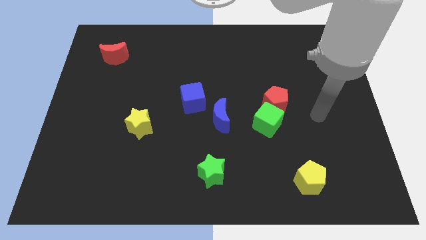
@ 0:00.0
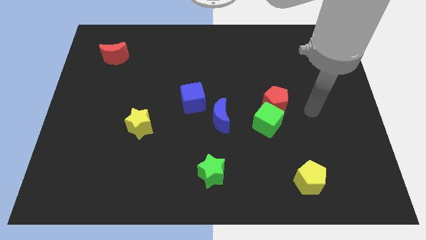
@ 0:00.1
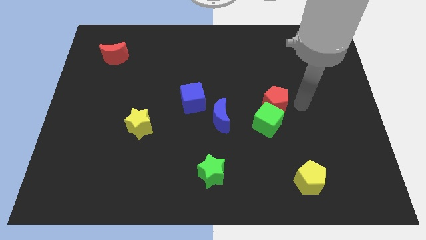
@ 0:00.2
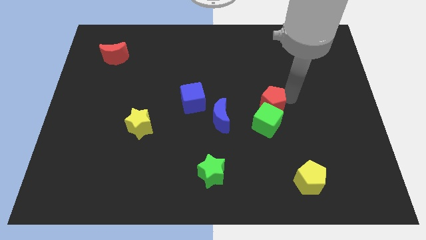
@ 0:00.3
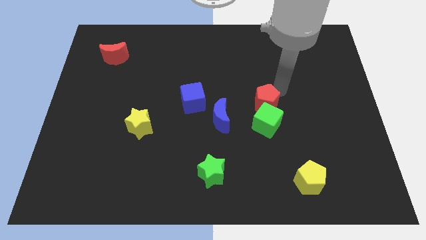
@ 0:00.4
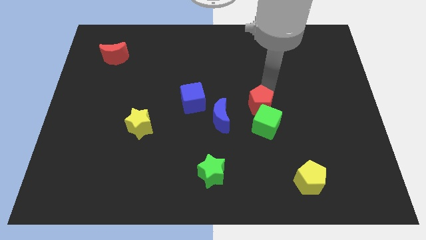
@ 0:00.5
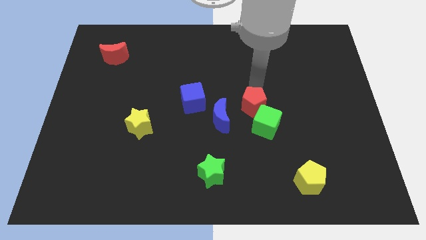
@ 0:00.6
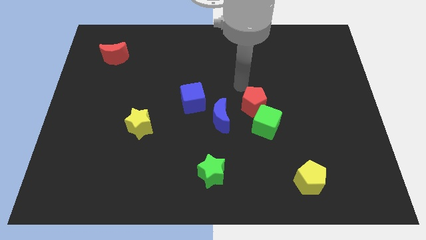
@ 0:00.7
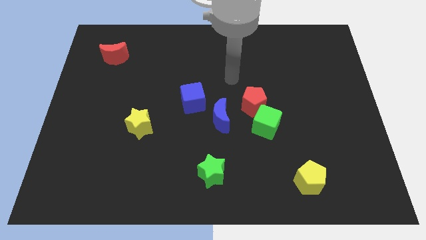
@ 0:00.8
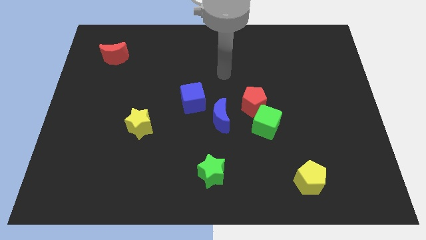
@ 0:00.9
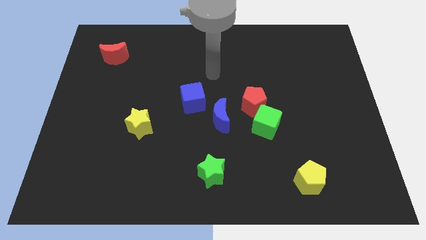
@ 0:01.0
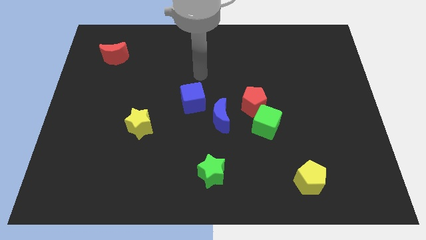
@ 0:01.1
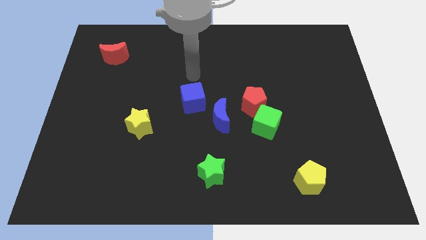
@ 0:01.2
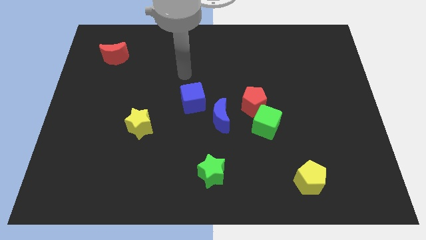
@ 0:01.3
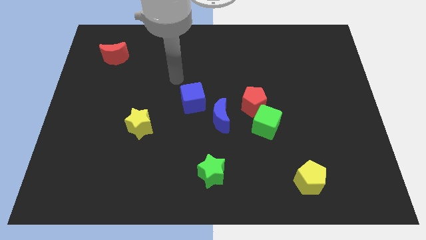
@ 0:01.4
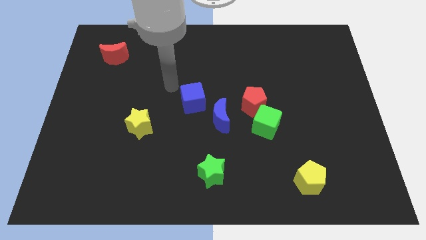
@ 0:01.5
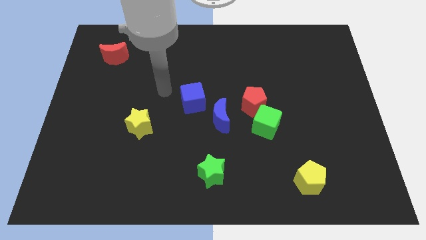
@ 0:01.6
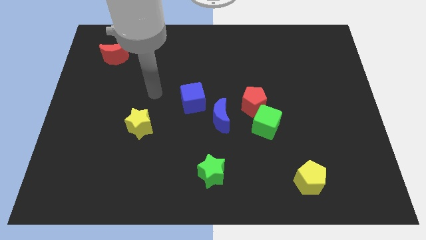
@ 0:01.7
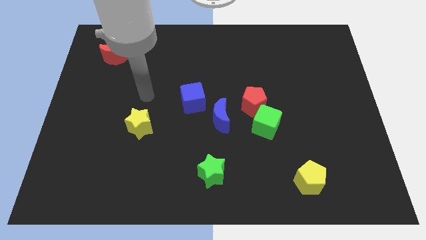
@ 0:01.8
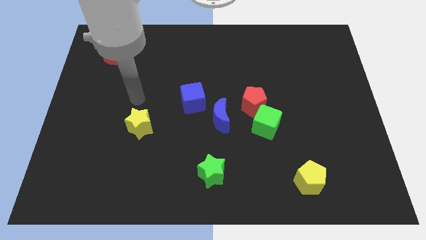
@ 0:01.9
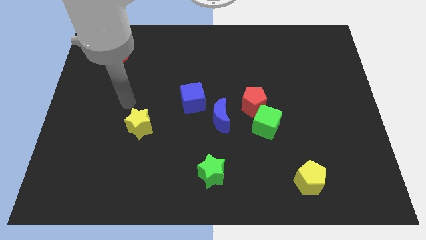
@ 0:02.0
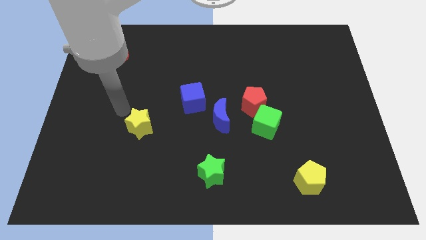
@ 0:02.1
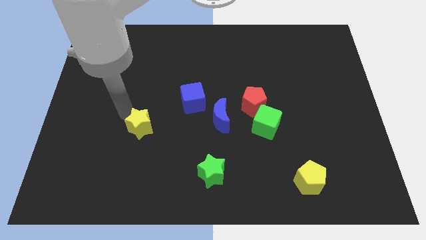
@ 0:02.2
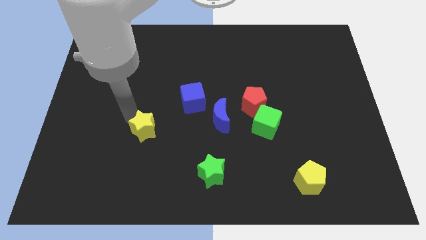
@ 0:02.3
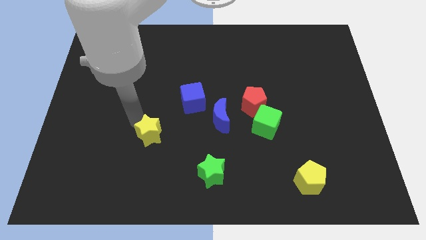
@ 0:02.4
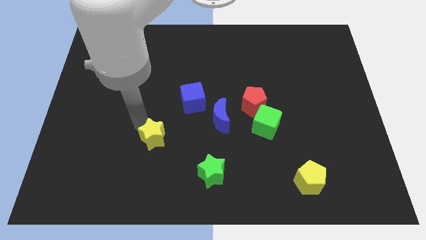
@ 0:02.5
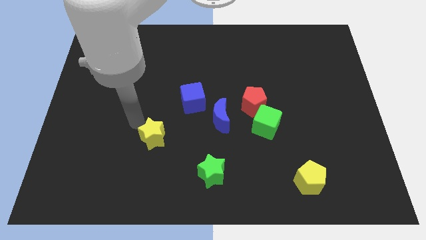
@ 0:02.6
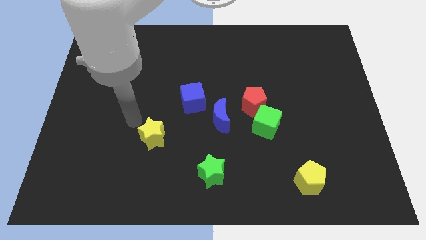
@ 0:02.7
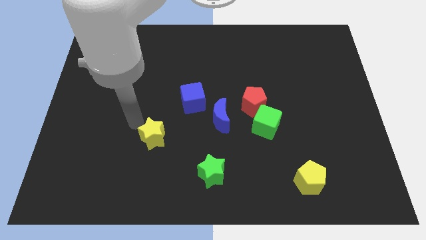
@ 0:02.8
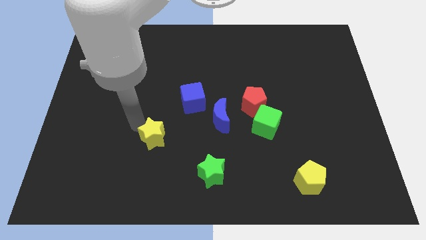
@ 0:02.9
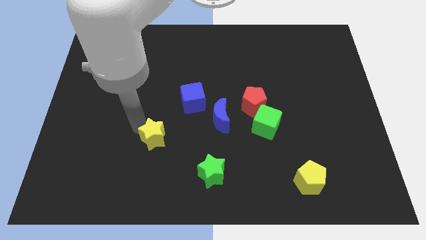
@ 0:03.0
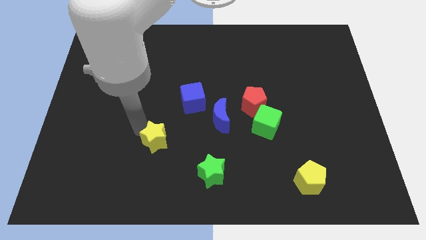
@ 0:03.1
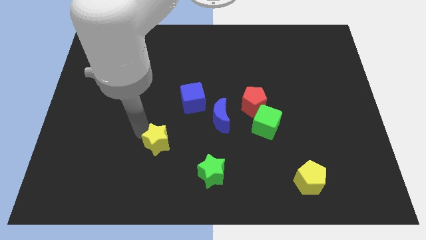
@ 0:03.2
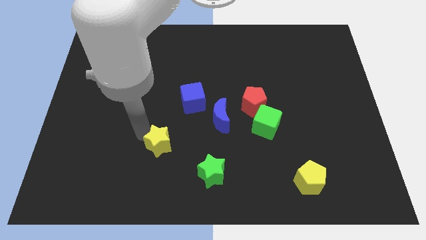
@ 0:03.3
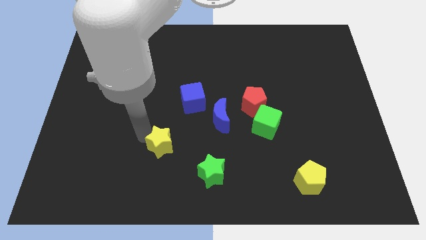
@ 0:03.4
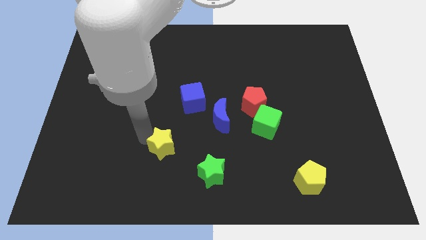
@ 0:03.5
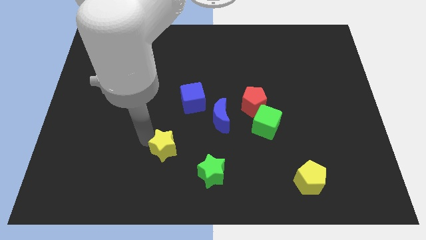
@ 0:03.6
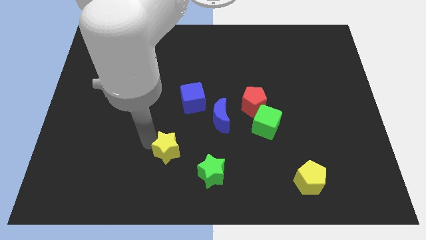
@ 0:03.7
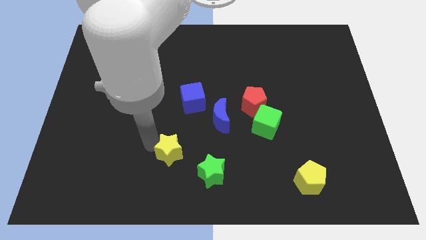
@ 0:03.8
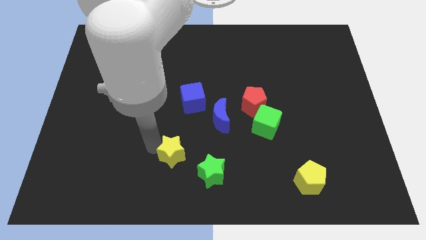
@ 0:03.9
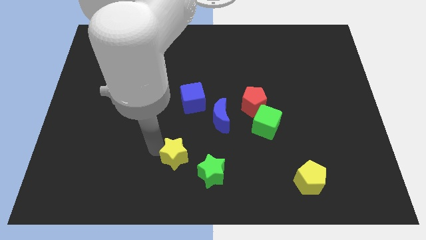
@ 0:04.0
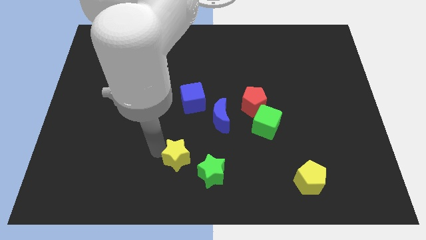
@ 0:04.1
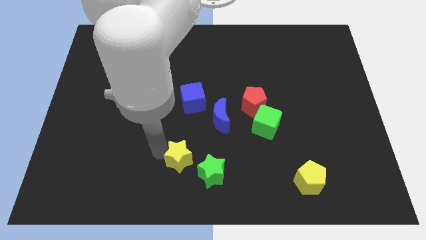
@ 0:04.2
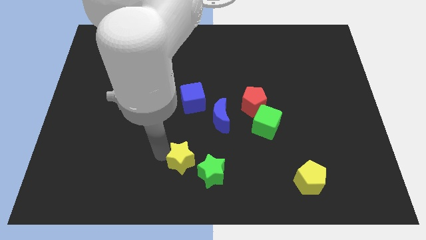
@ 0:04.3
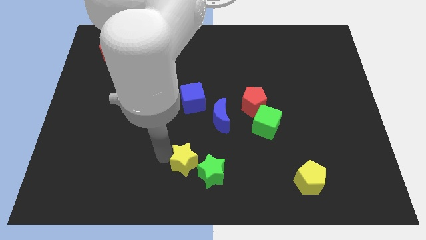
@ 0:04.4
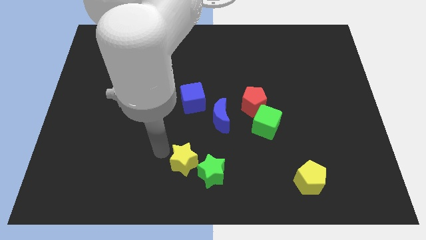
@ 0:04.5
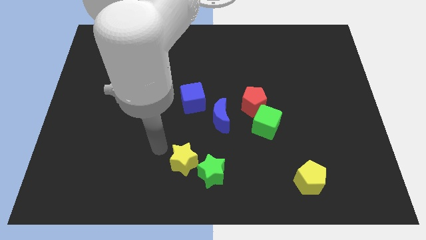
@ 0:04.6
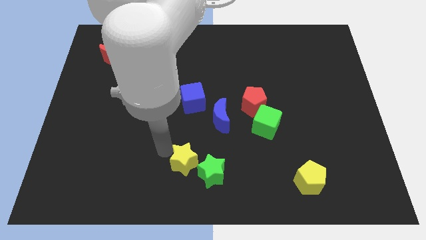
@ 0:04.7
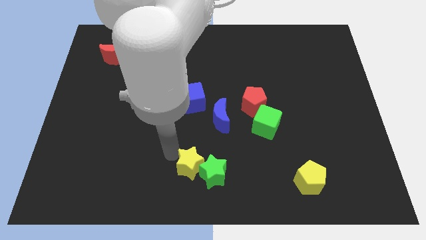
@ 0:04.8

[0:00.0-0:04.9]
put the yellow star close to the green star

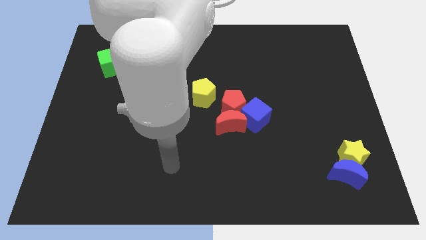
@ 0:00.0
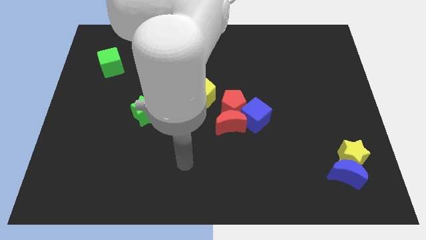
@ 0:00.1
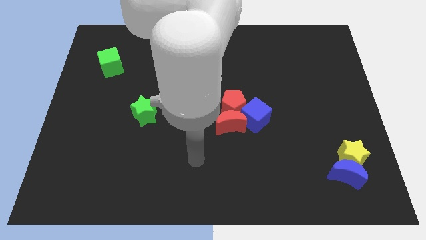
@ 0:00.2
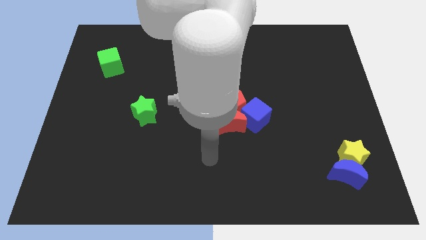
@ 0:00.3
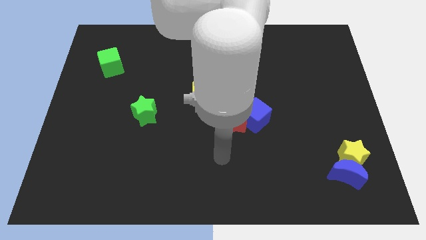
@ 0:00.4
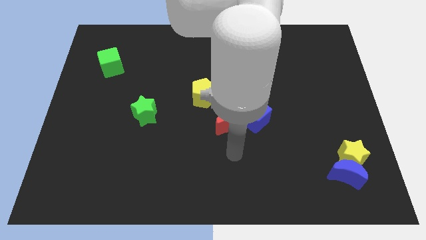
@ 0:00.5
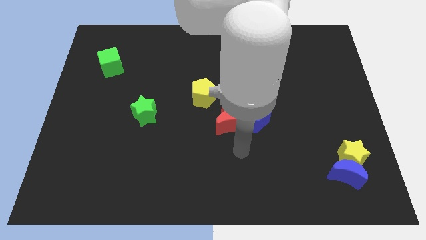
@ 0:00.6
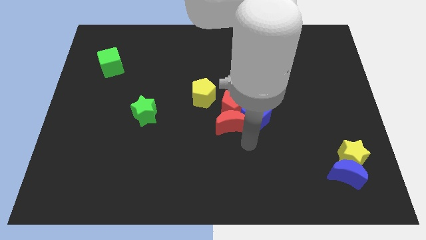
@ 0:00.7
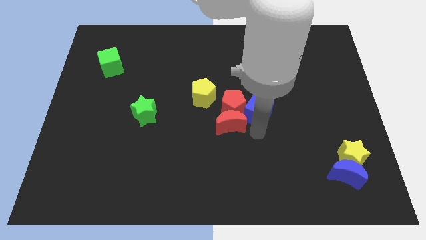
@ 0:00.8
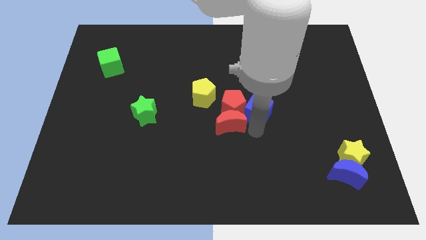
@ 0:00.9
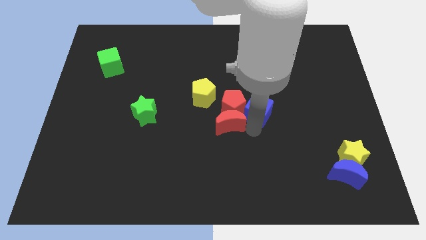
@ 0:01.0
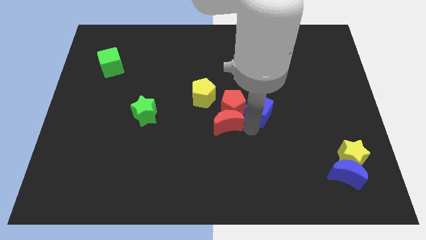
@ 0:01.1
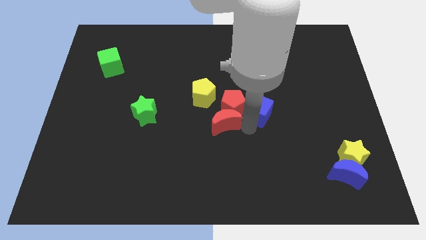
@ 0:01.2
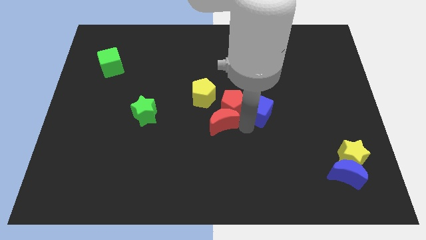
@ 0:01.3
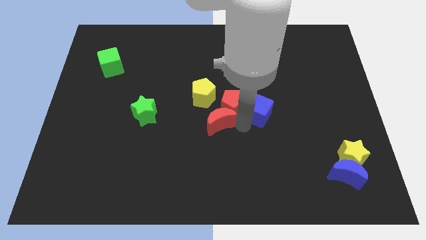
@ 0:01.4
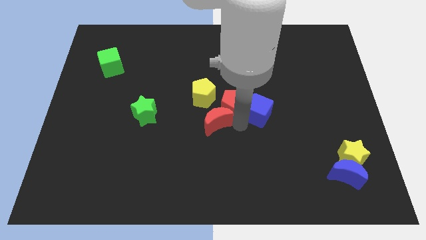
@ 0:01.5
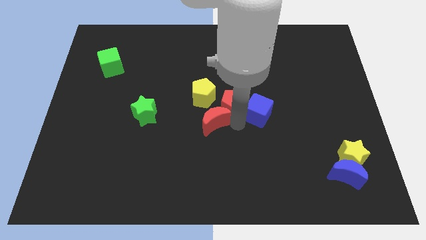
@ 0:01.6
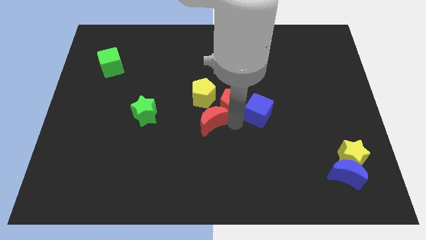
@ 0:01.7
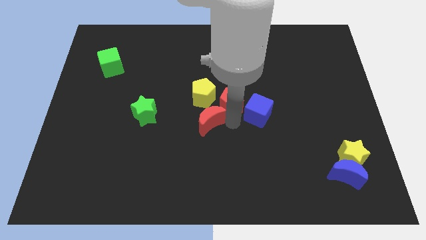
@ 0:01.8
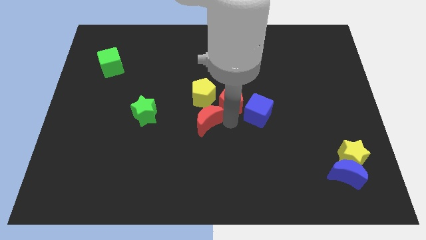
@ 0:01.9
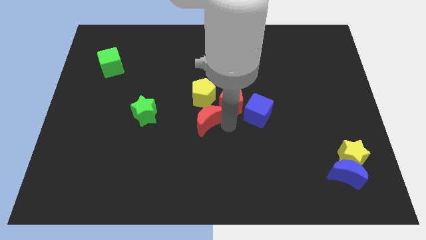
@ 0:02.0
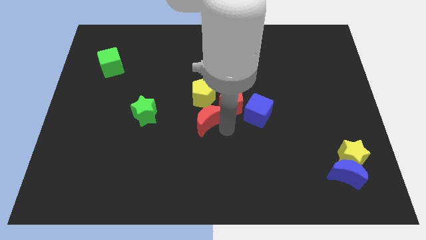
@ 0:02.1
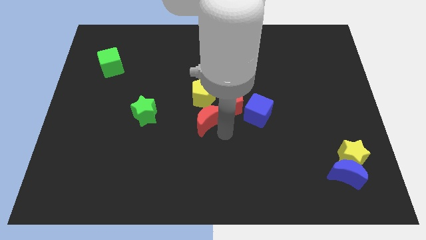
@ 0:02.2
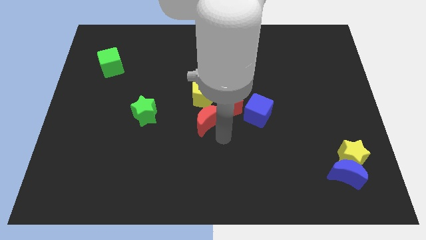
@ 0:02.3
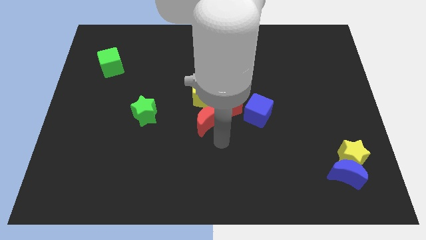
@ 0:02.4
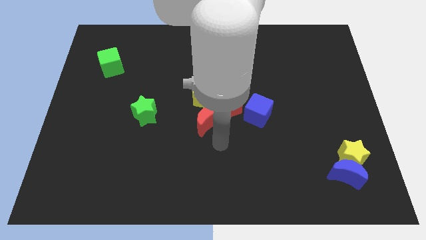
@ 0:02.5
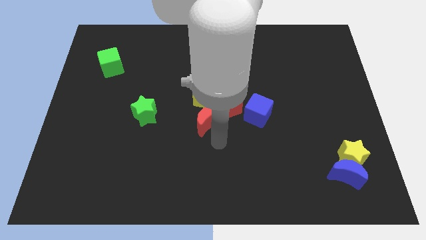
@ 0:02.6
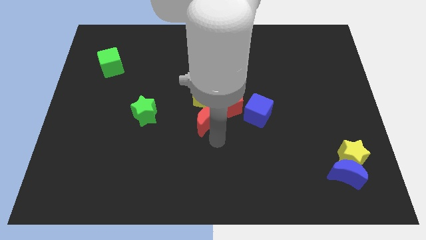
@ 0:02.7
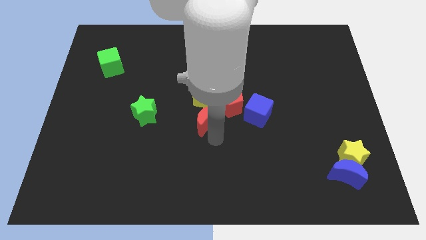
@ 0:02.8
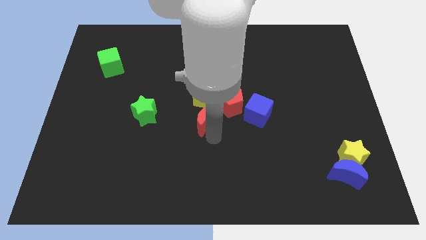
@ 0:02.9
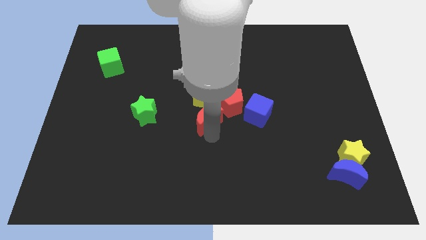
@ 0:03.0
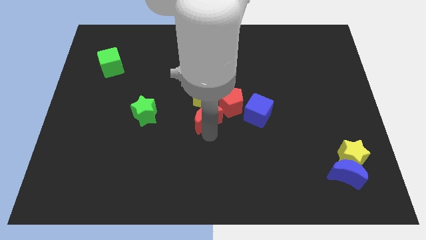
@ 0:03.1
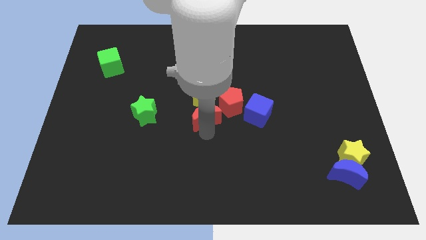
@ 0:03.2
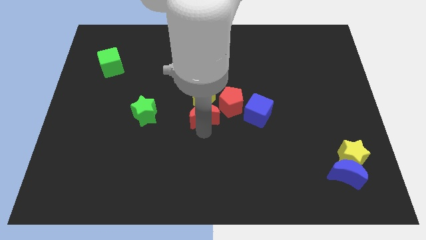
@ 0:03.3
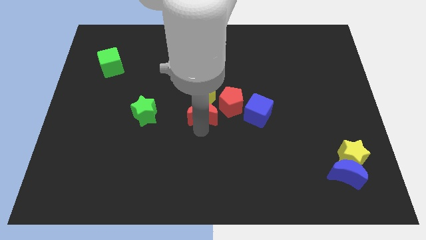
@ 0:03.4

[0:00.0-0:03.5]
slide the red moon to the yellow pentagon
